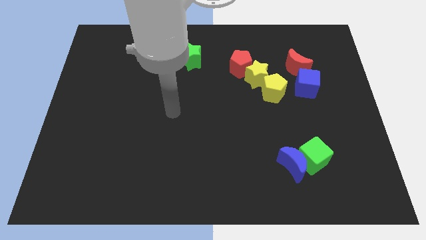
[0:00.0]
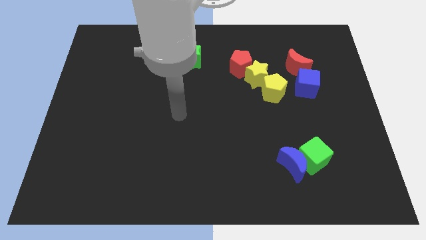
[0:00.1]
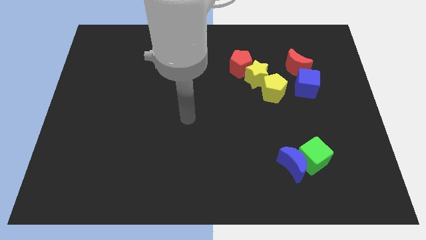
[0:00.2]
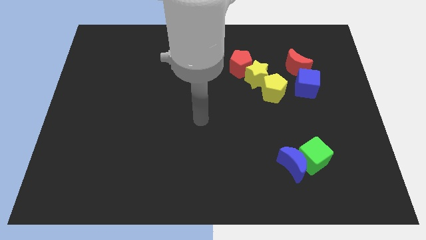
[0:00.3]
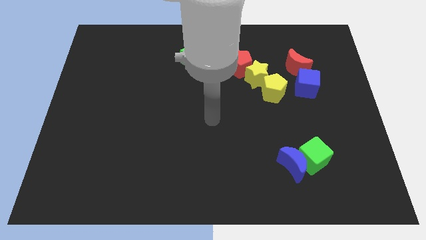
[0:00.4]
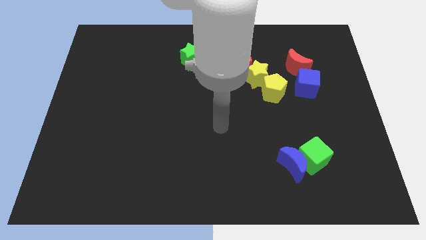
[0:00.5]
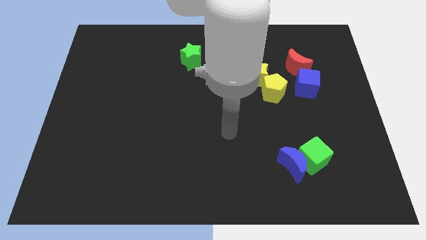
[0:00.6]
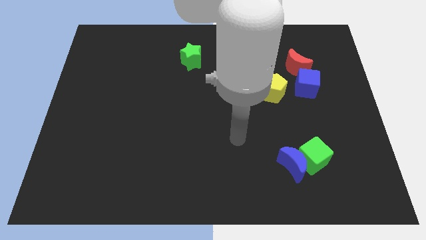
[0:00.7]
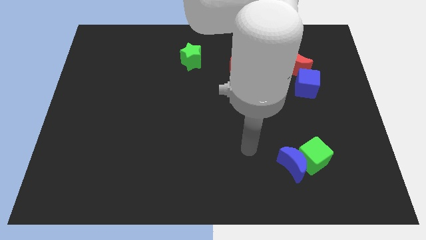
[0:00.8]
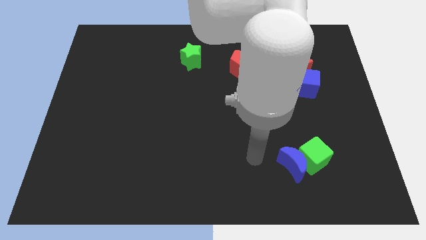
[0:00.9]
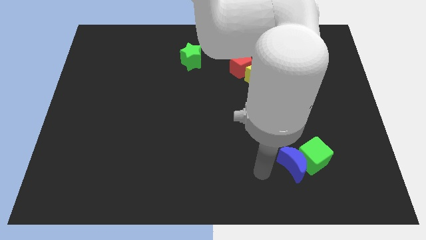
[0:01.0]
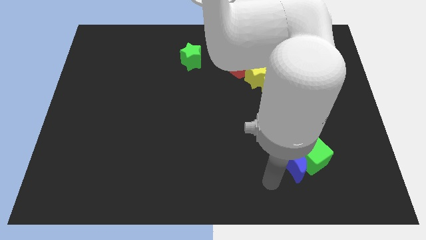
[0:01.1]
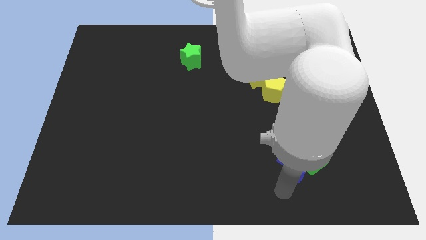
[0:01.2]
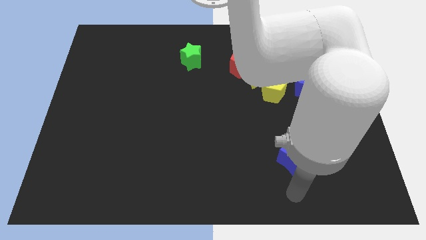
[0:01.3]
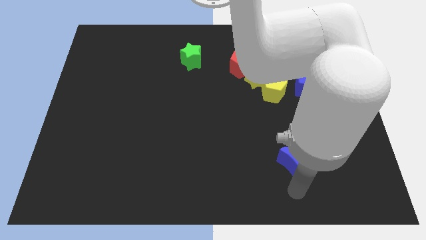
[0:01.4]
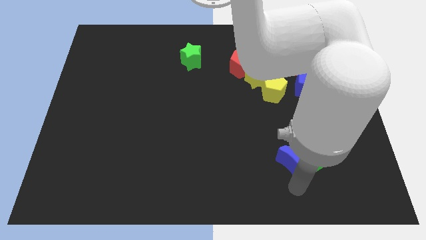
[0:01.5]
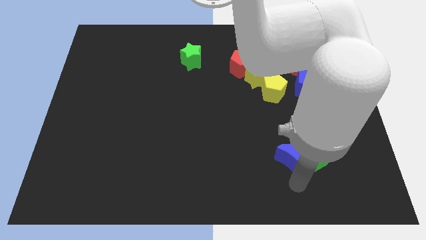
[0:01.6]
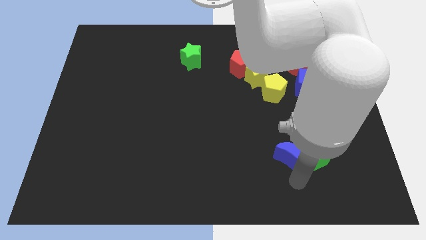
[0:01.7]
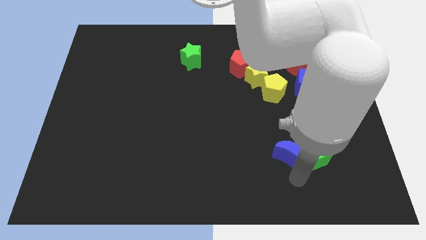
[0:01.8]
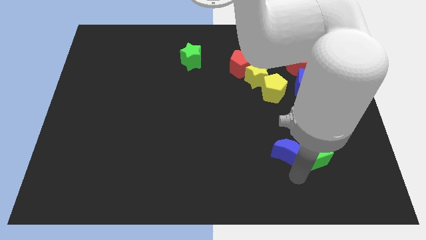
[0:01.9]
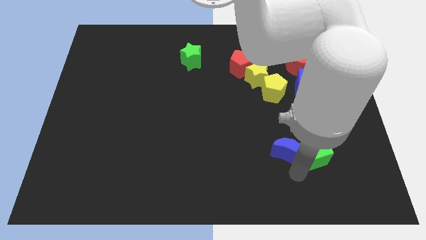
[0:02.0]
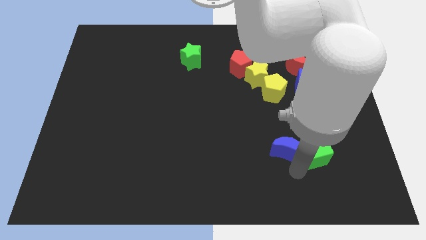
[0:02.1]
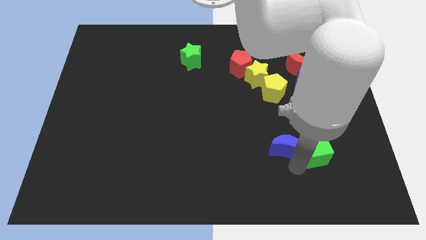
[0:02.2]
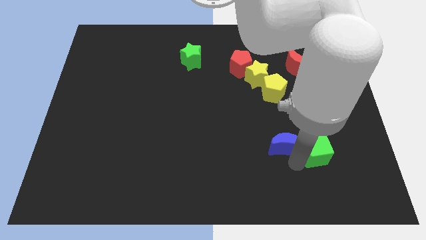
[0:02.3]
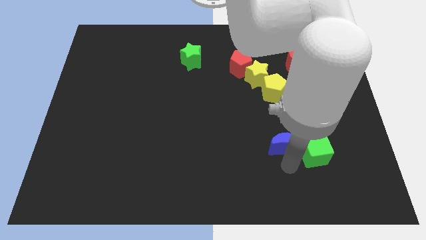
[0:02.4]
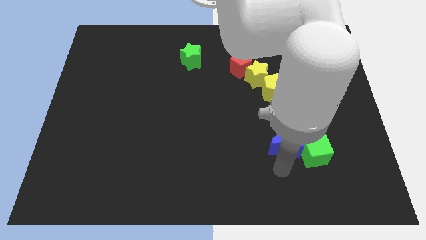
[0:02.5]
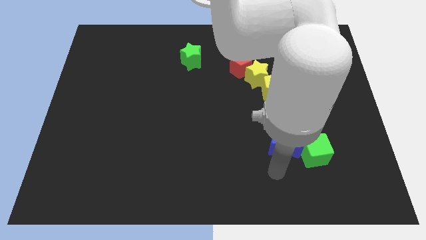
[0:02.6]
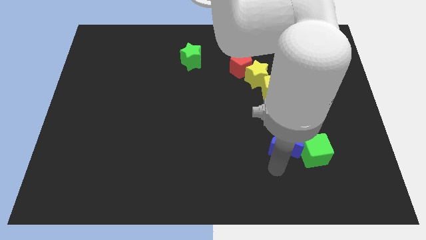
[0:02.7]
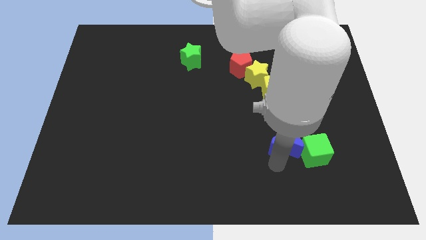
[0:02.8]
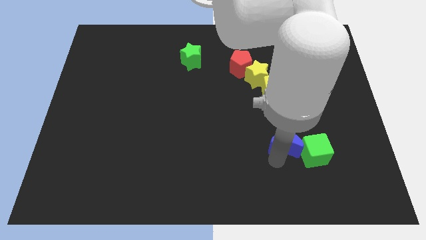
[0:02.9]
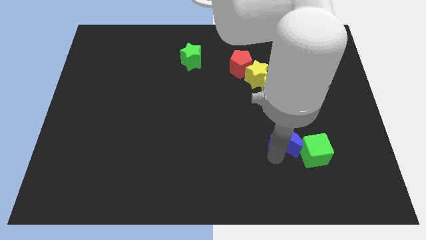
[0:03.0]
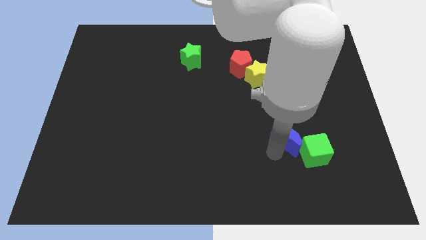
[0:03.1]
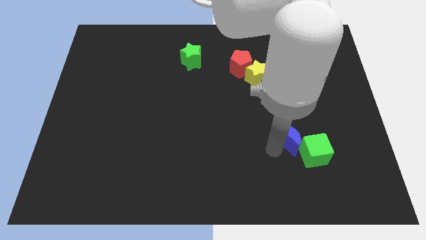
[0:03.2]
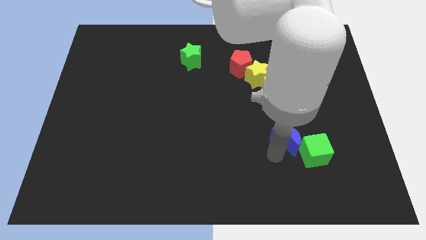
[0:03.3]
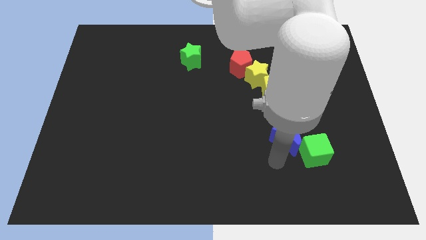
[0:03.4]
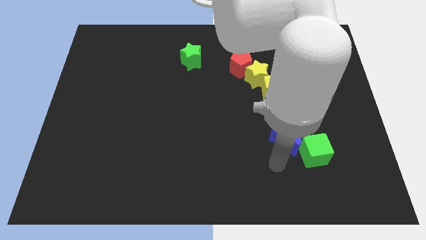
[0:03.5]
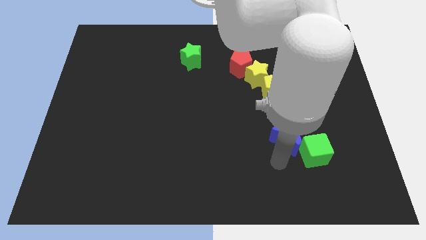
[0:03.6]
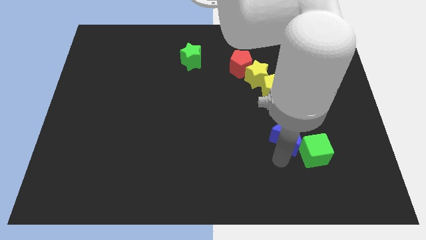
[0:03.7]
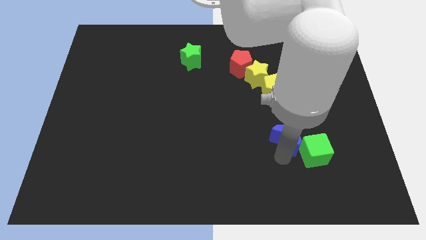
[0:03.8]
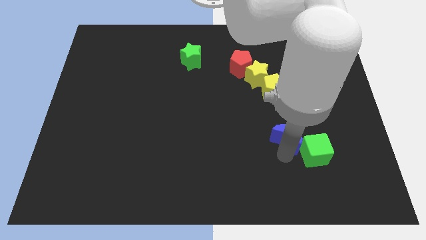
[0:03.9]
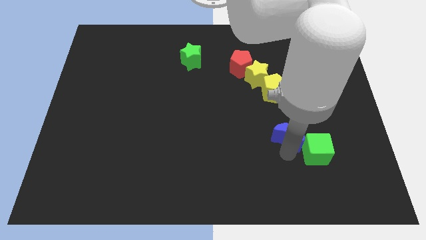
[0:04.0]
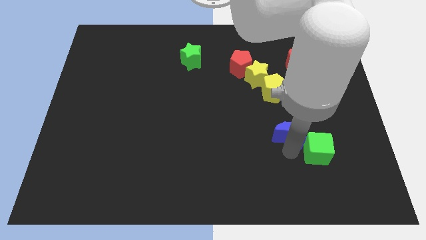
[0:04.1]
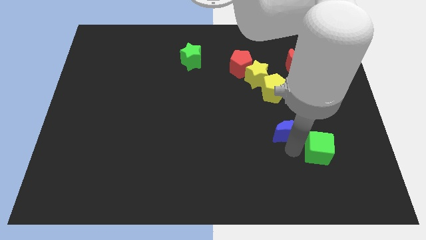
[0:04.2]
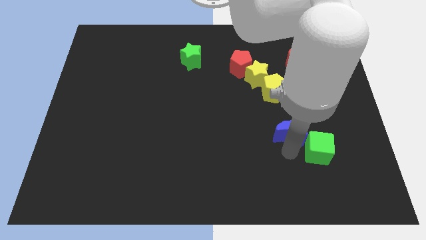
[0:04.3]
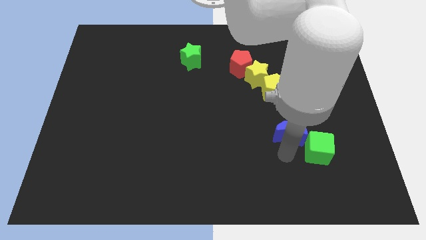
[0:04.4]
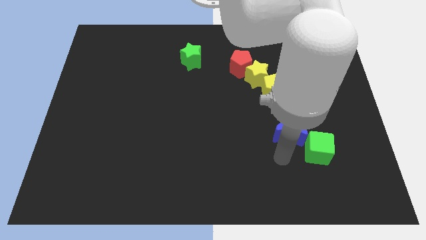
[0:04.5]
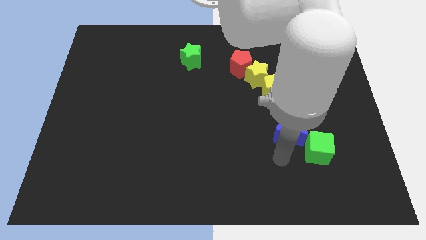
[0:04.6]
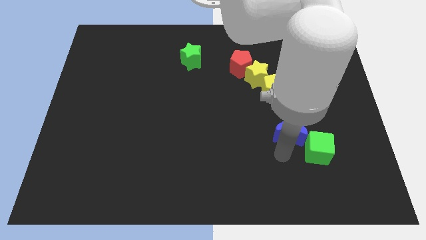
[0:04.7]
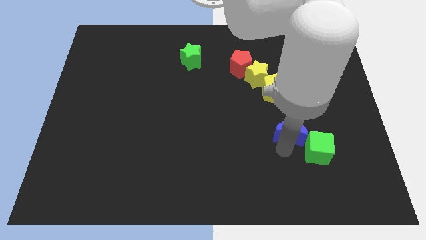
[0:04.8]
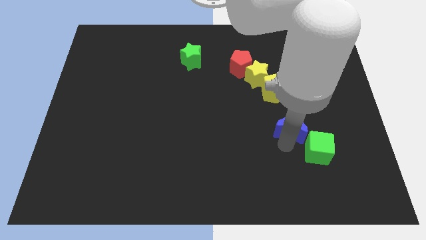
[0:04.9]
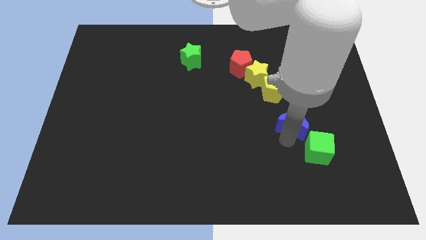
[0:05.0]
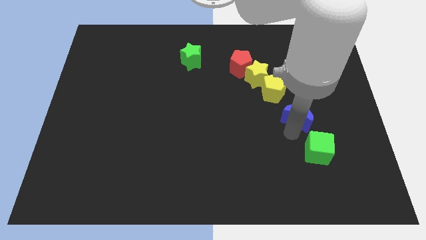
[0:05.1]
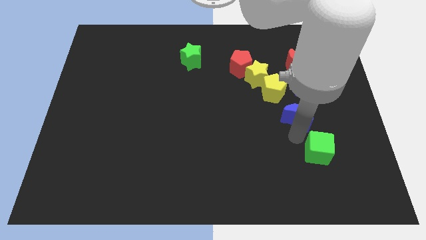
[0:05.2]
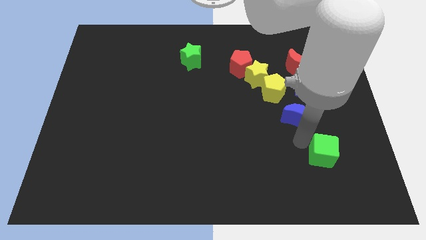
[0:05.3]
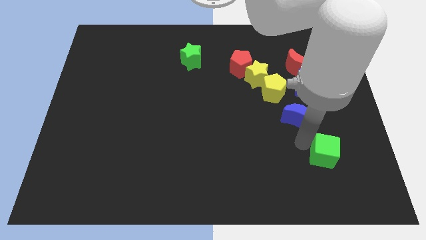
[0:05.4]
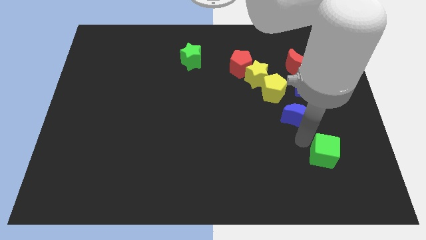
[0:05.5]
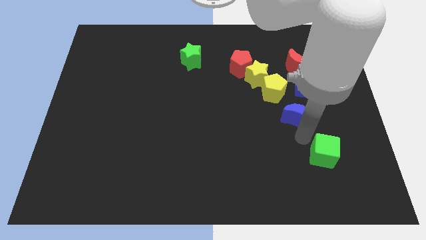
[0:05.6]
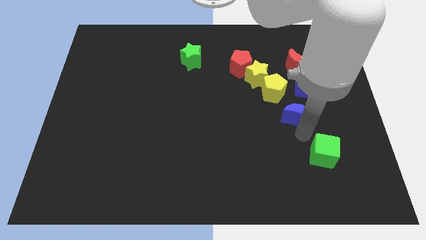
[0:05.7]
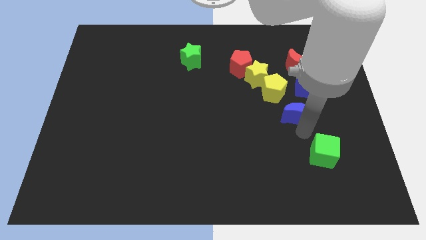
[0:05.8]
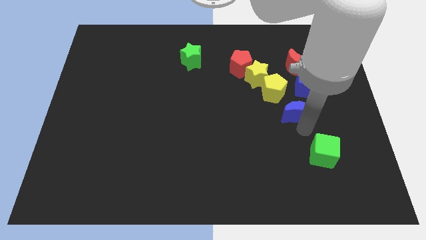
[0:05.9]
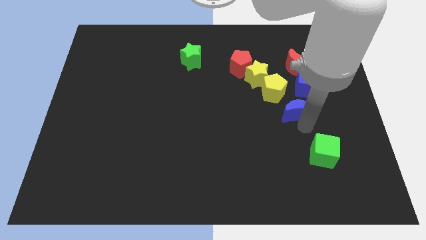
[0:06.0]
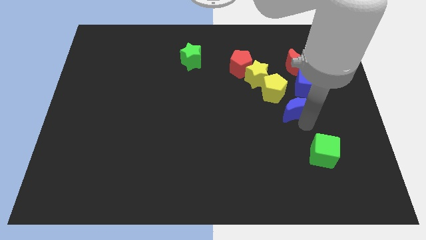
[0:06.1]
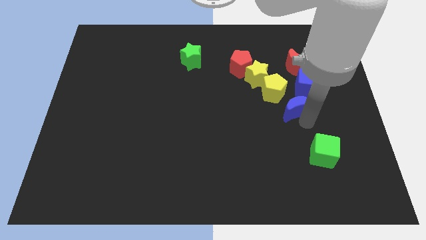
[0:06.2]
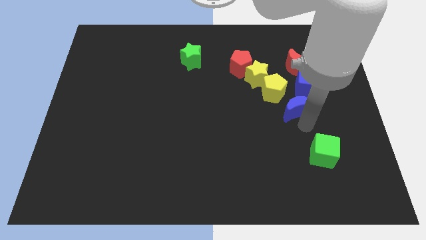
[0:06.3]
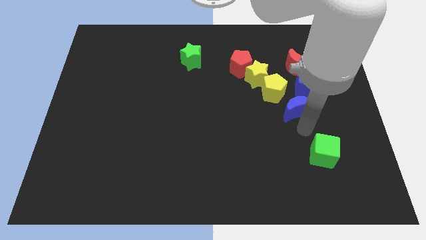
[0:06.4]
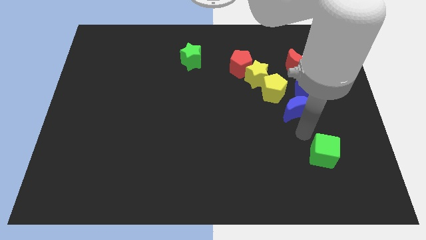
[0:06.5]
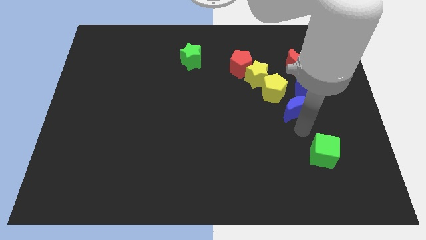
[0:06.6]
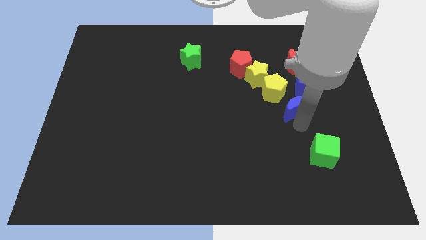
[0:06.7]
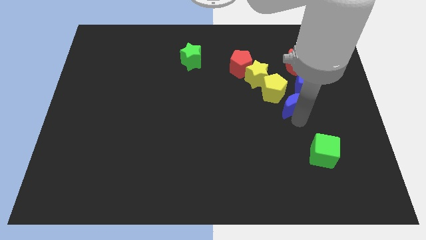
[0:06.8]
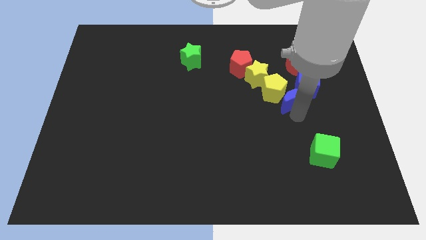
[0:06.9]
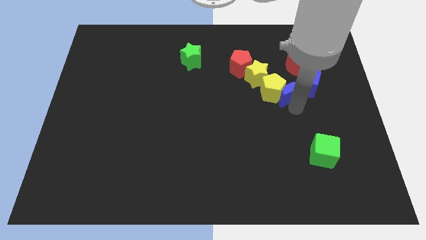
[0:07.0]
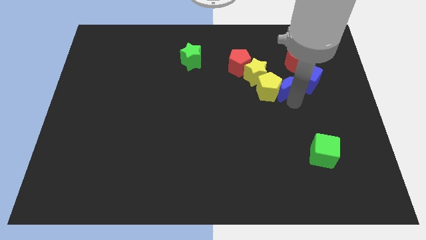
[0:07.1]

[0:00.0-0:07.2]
slide the blue moon upwards

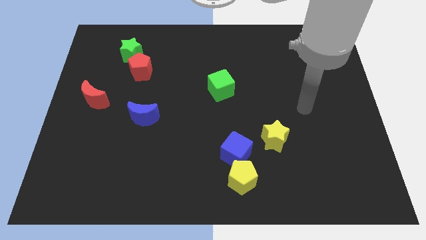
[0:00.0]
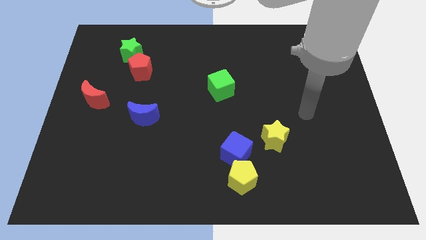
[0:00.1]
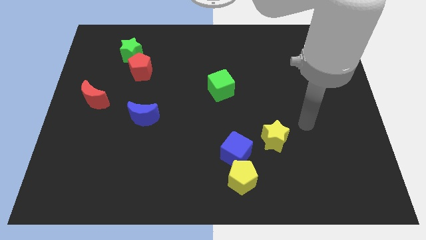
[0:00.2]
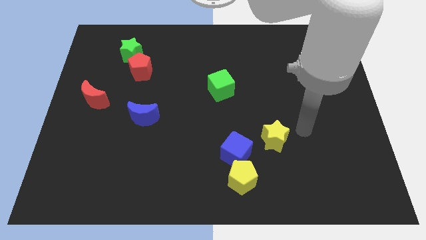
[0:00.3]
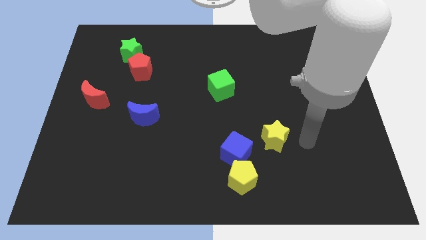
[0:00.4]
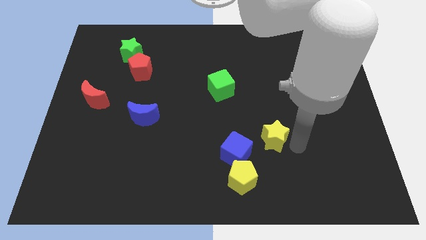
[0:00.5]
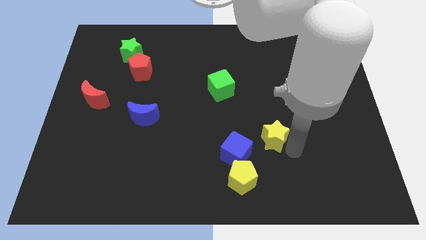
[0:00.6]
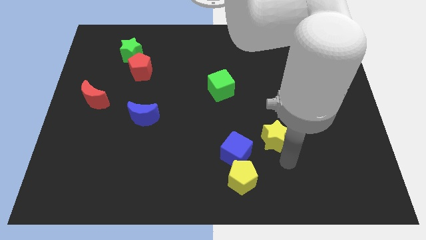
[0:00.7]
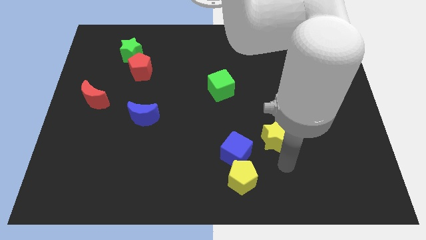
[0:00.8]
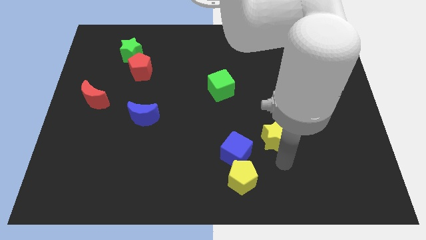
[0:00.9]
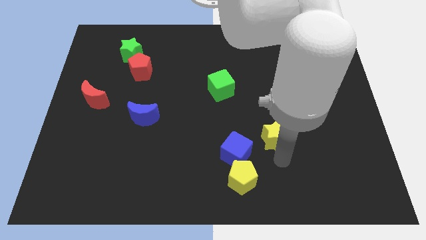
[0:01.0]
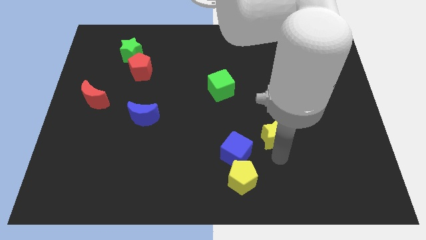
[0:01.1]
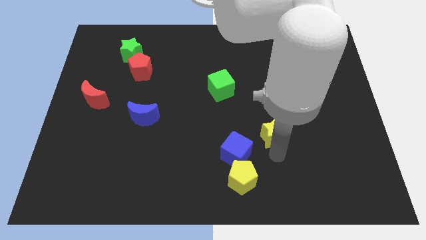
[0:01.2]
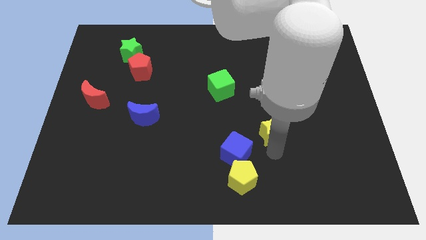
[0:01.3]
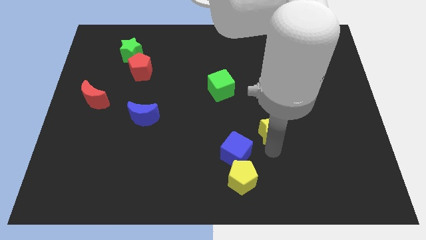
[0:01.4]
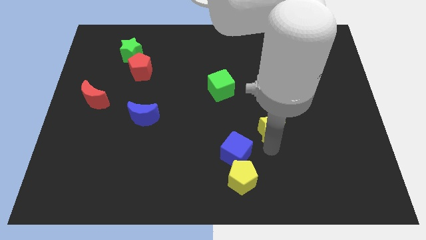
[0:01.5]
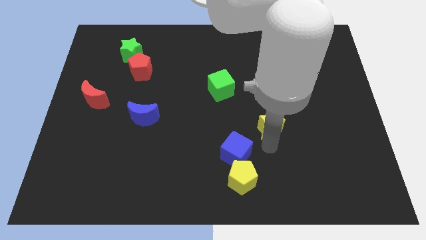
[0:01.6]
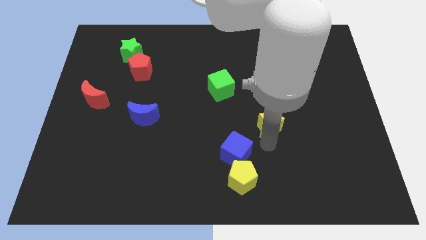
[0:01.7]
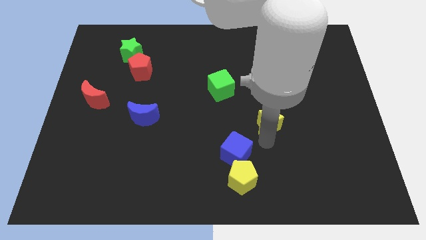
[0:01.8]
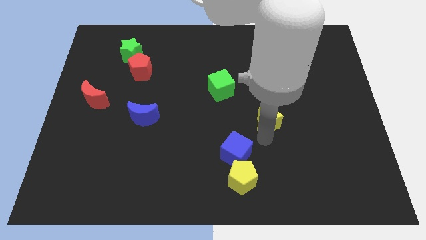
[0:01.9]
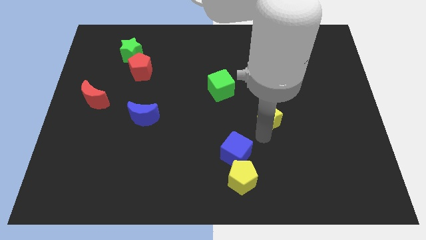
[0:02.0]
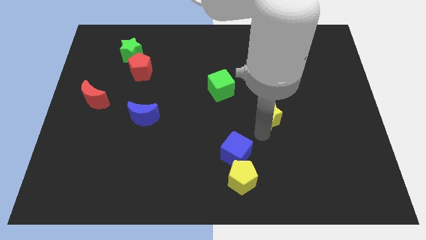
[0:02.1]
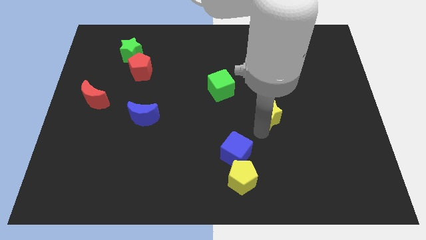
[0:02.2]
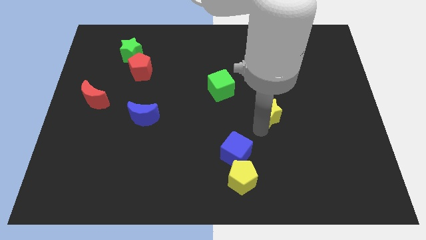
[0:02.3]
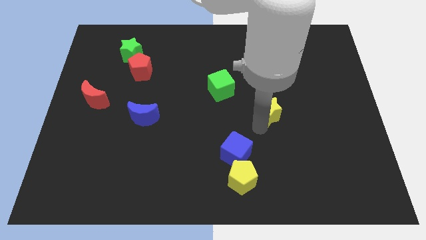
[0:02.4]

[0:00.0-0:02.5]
slide the yellow star up slightly
